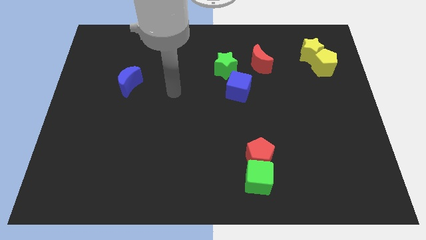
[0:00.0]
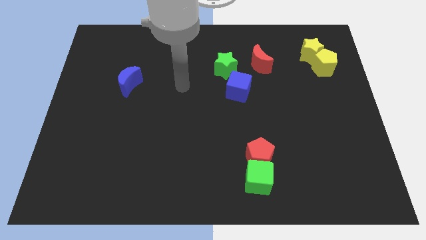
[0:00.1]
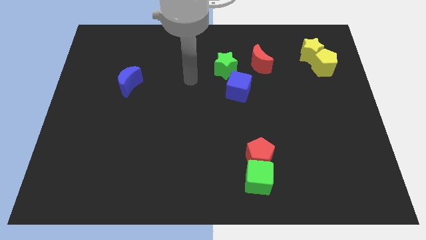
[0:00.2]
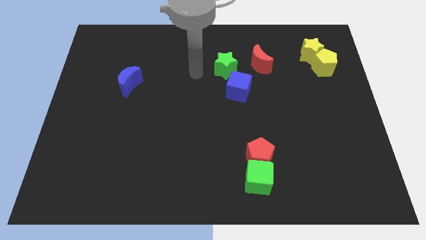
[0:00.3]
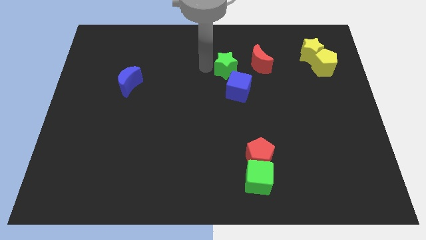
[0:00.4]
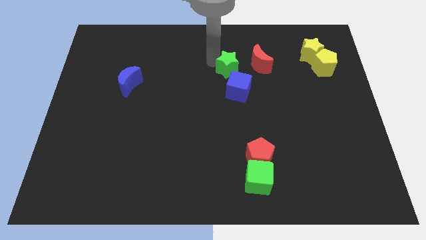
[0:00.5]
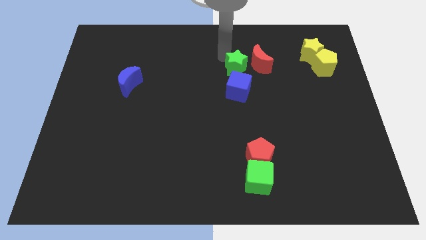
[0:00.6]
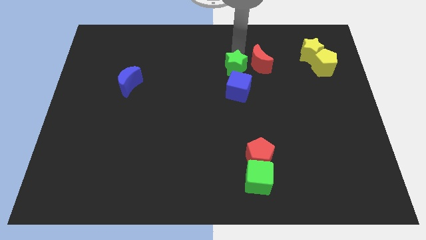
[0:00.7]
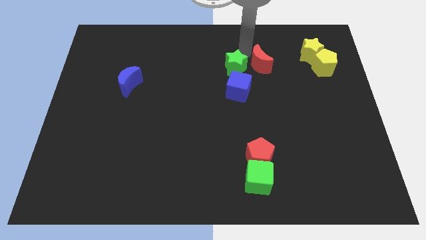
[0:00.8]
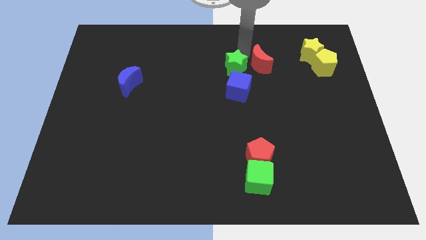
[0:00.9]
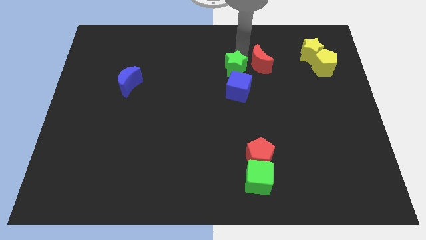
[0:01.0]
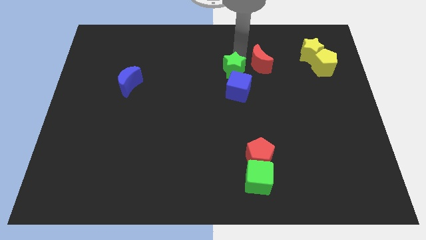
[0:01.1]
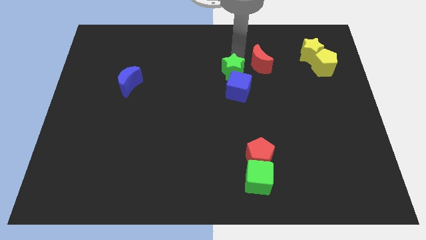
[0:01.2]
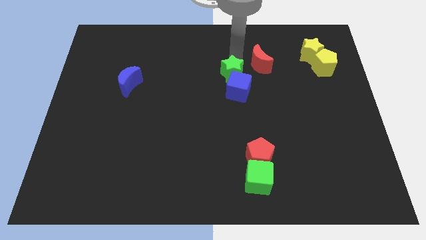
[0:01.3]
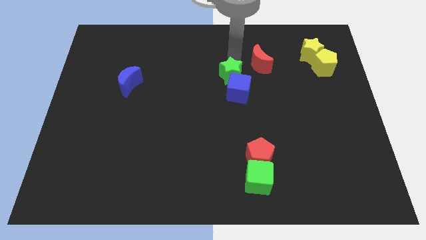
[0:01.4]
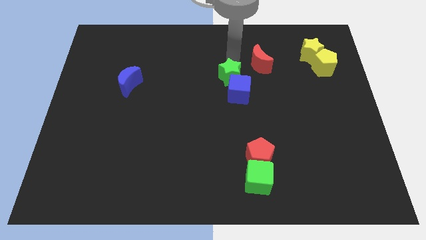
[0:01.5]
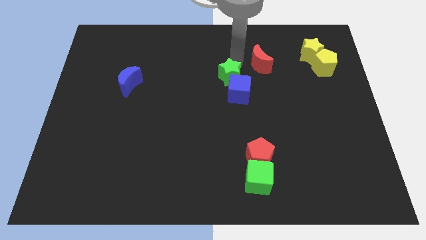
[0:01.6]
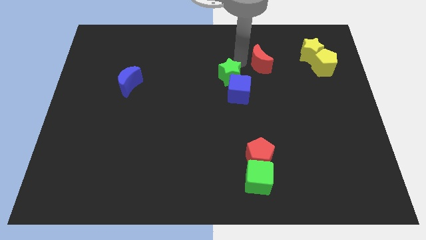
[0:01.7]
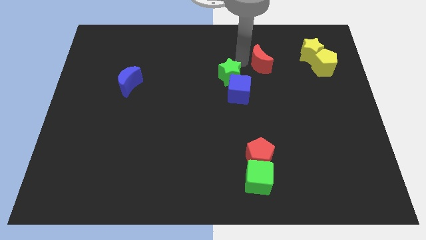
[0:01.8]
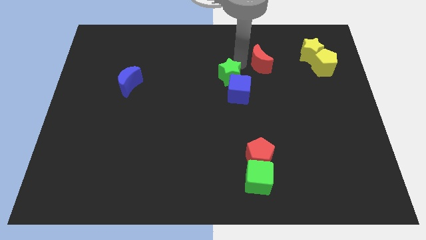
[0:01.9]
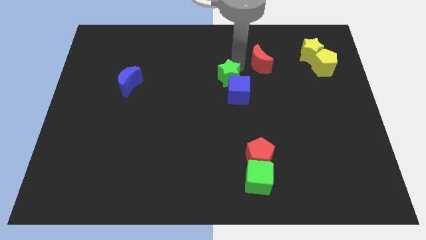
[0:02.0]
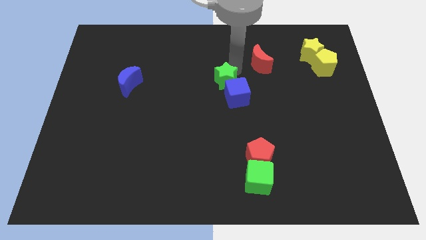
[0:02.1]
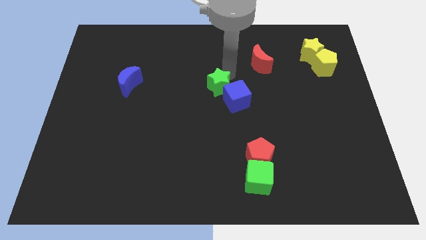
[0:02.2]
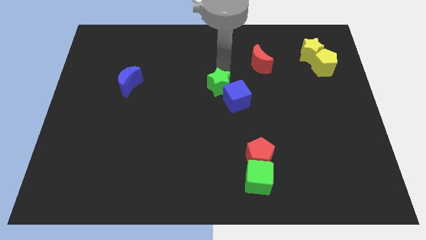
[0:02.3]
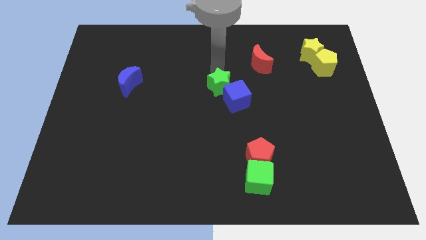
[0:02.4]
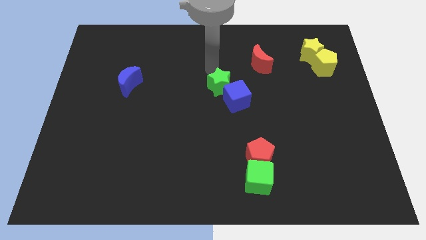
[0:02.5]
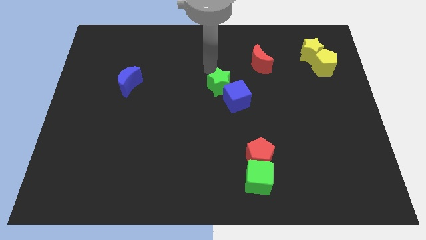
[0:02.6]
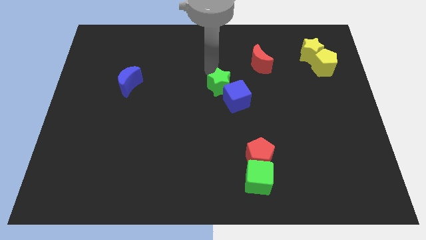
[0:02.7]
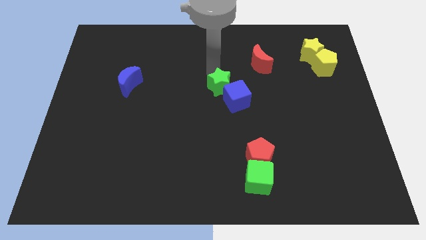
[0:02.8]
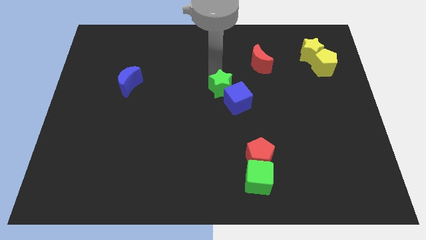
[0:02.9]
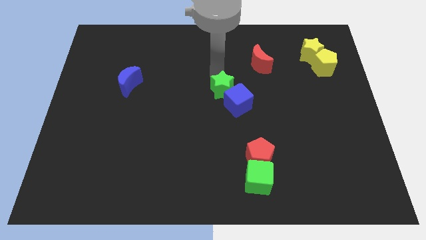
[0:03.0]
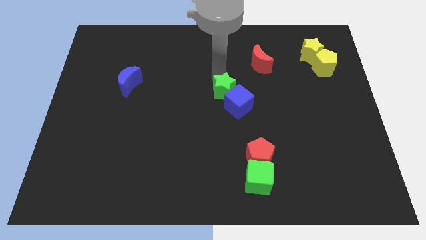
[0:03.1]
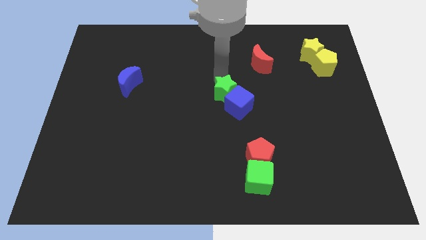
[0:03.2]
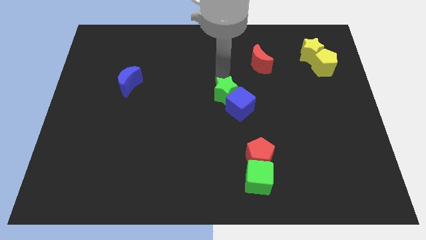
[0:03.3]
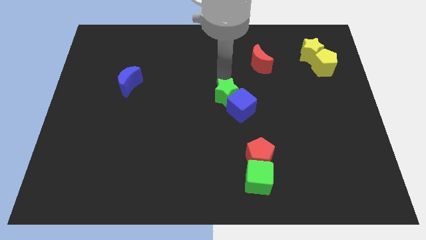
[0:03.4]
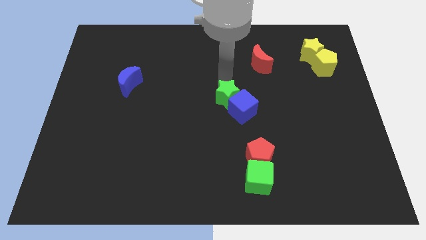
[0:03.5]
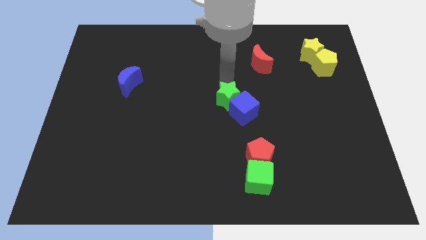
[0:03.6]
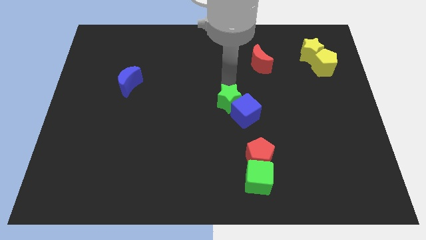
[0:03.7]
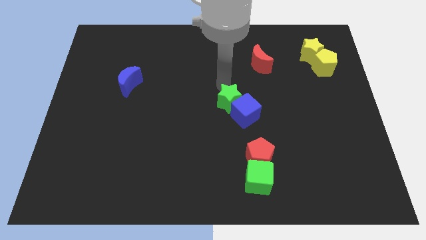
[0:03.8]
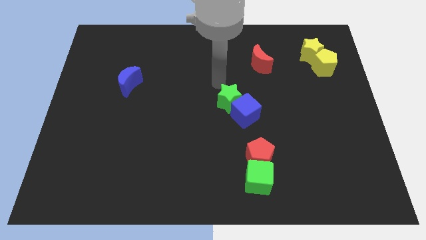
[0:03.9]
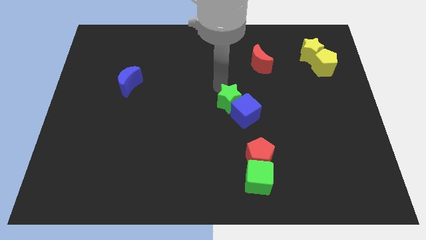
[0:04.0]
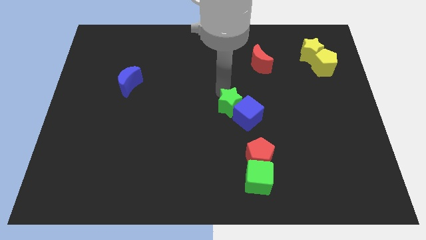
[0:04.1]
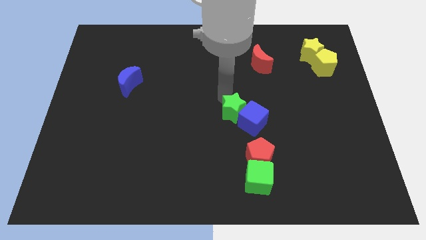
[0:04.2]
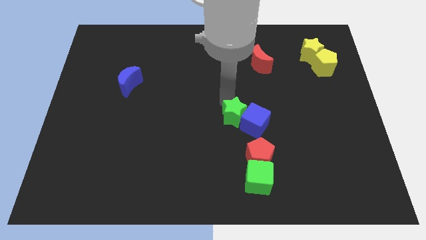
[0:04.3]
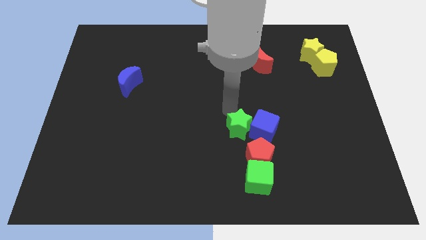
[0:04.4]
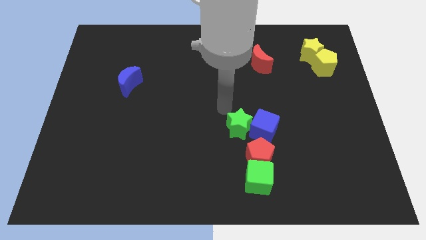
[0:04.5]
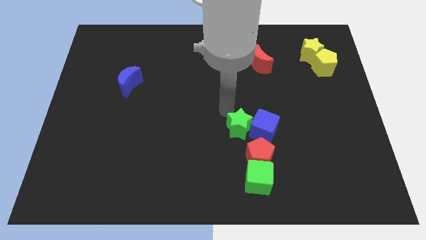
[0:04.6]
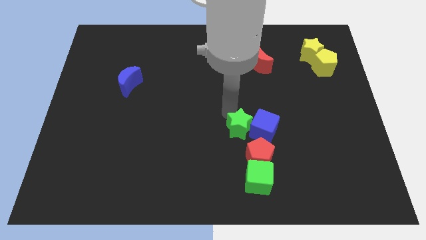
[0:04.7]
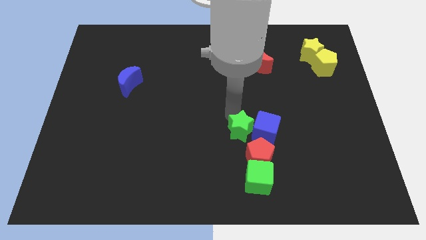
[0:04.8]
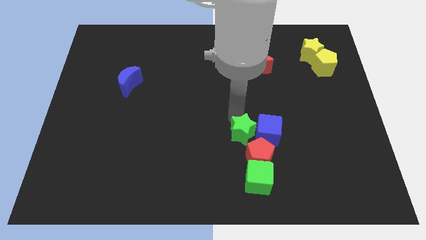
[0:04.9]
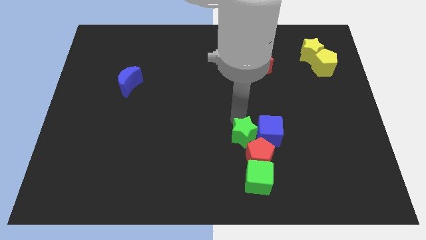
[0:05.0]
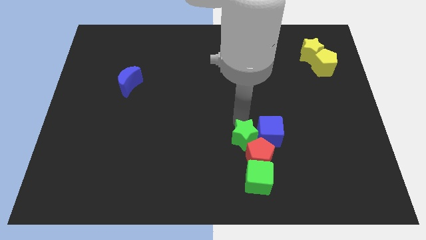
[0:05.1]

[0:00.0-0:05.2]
slide the green star to the red pentagon

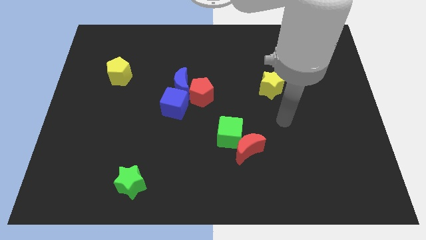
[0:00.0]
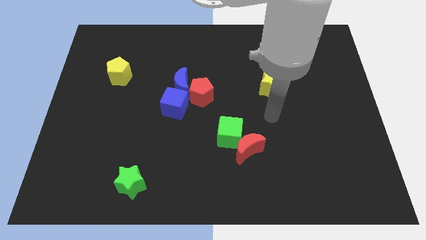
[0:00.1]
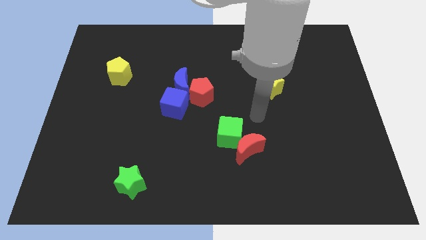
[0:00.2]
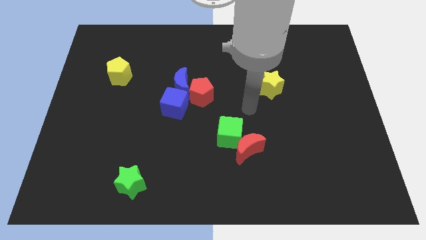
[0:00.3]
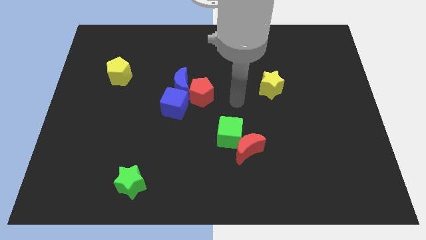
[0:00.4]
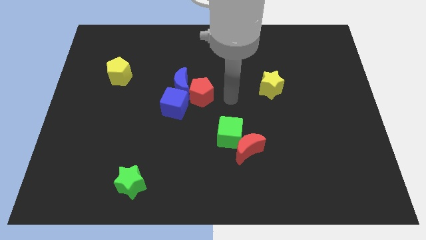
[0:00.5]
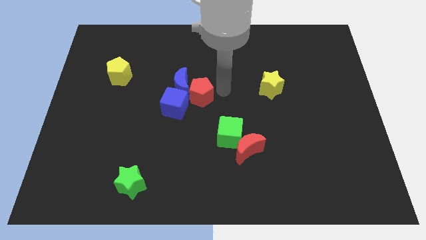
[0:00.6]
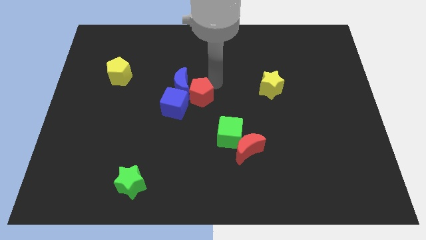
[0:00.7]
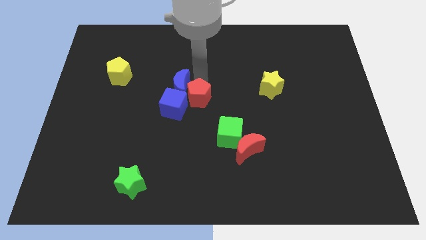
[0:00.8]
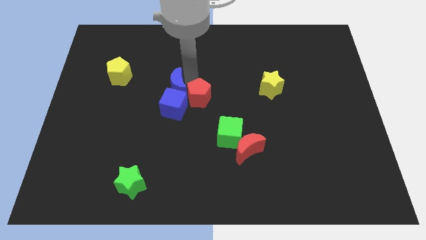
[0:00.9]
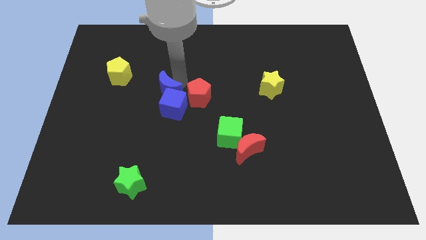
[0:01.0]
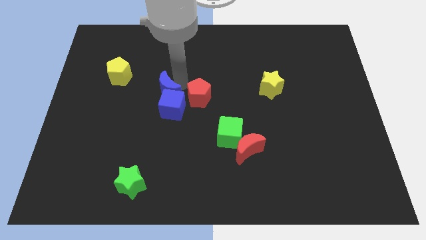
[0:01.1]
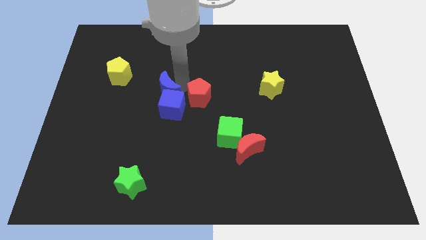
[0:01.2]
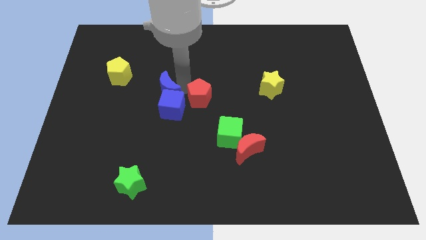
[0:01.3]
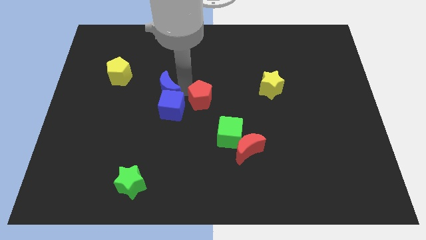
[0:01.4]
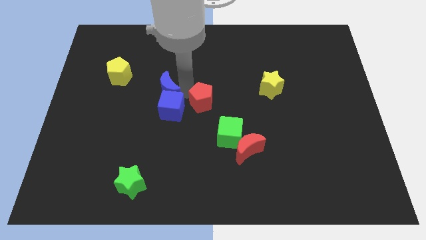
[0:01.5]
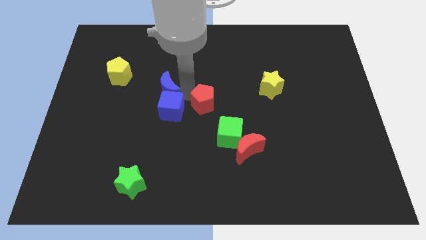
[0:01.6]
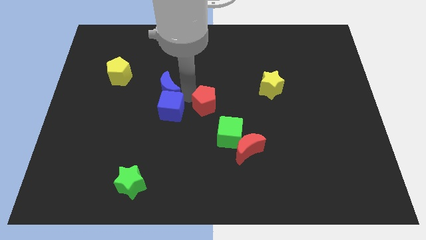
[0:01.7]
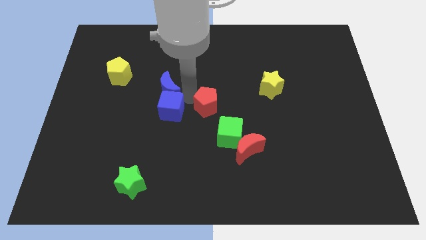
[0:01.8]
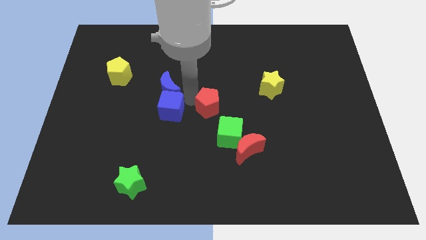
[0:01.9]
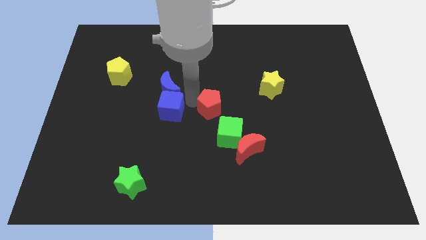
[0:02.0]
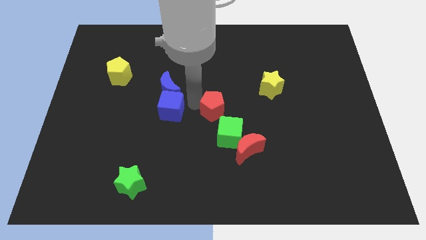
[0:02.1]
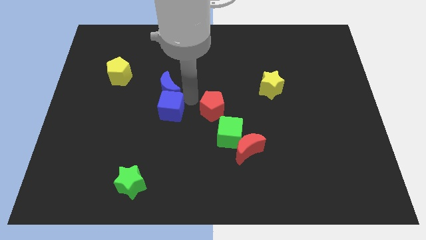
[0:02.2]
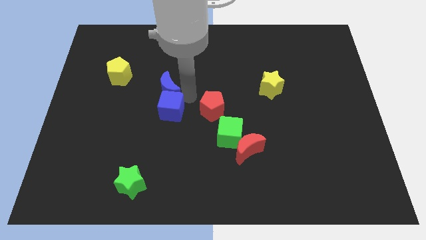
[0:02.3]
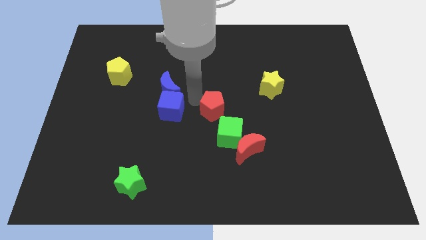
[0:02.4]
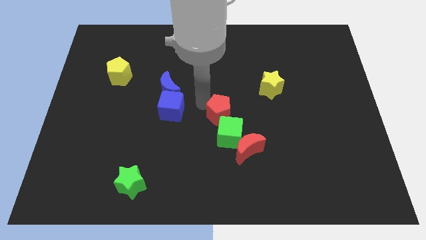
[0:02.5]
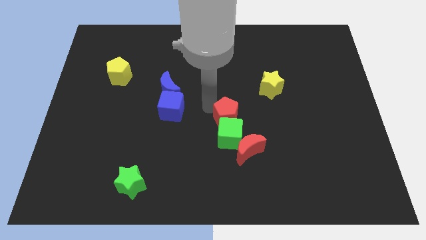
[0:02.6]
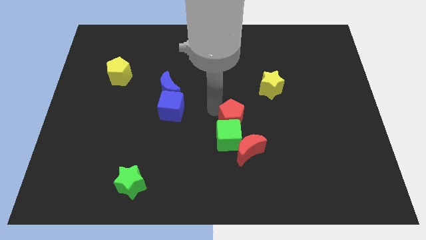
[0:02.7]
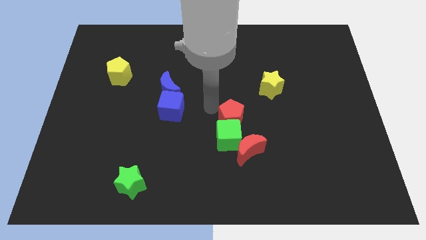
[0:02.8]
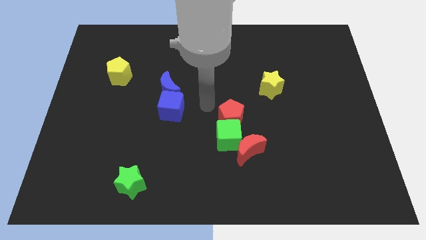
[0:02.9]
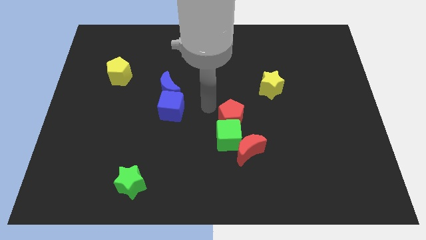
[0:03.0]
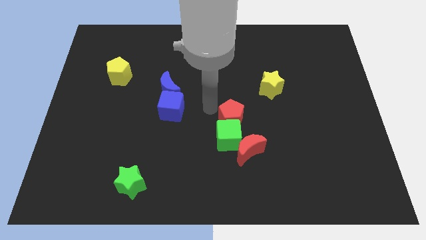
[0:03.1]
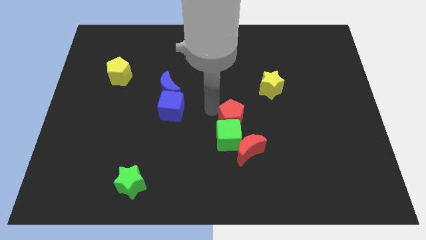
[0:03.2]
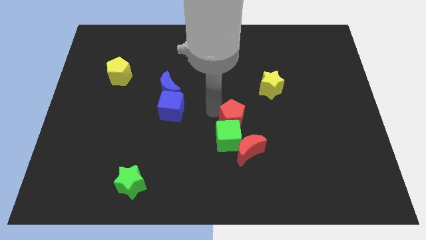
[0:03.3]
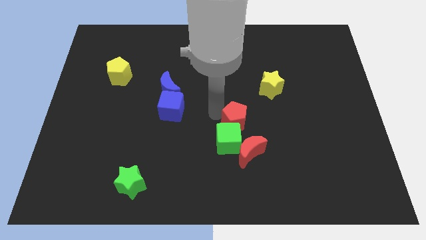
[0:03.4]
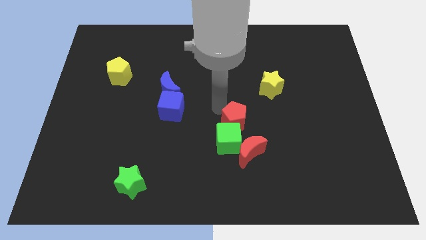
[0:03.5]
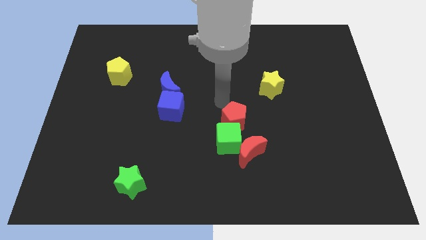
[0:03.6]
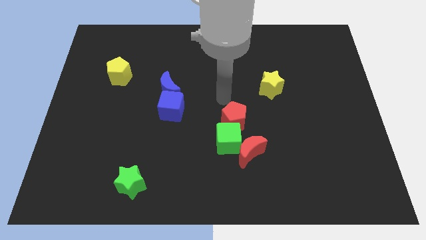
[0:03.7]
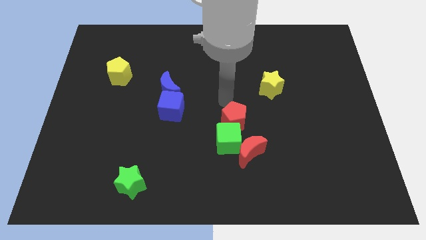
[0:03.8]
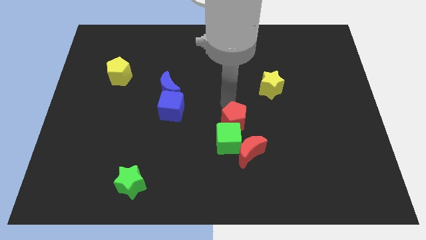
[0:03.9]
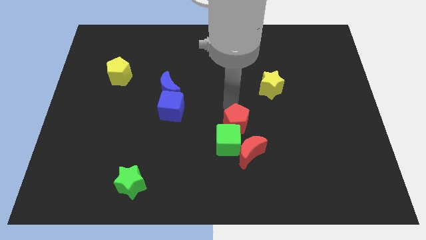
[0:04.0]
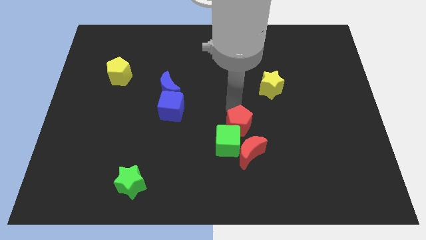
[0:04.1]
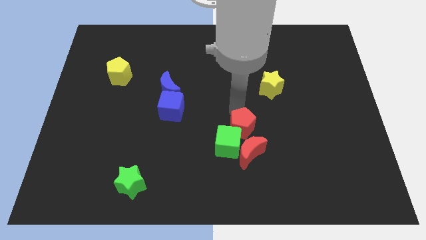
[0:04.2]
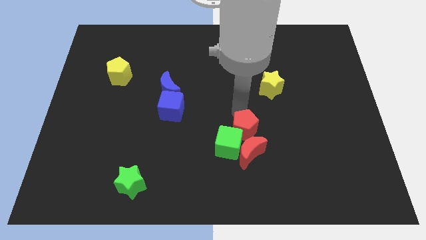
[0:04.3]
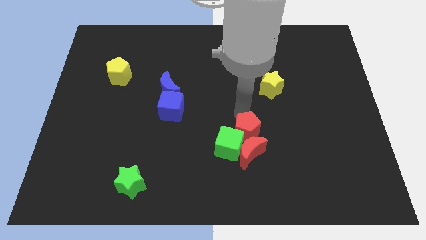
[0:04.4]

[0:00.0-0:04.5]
slide the red pentagon towards the red moon
